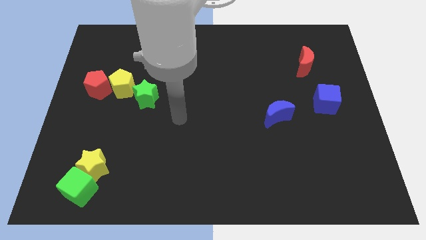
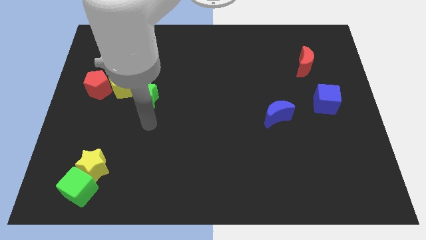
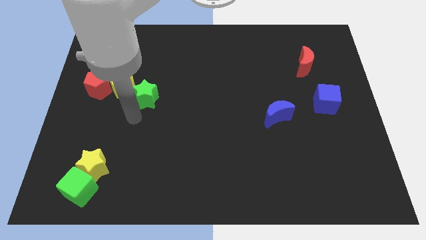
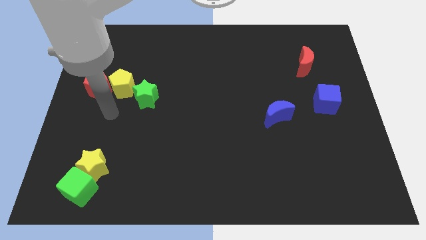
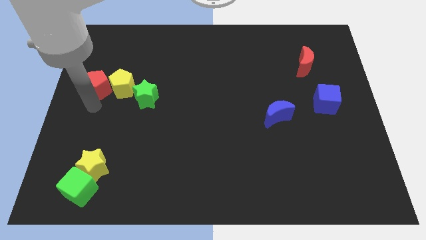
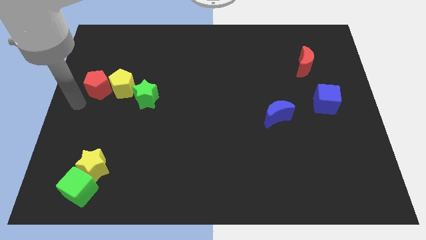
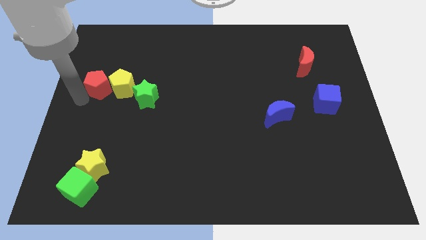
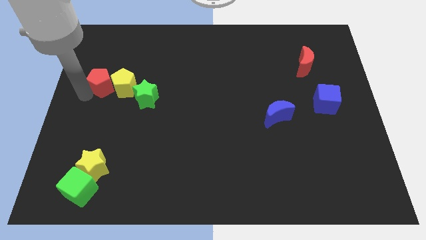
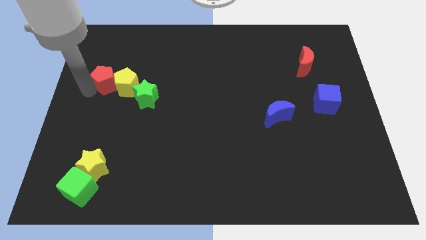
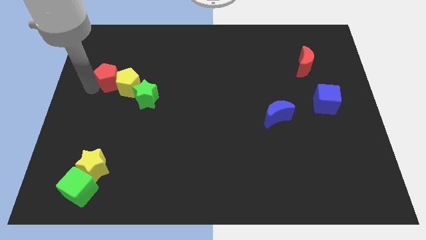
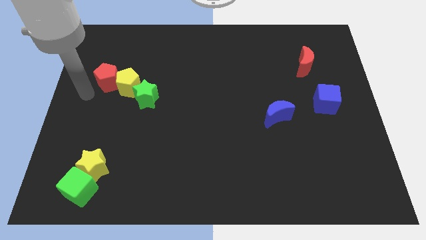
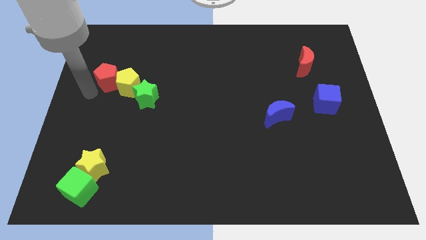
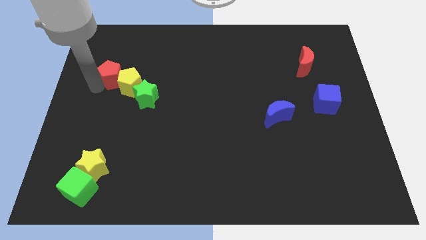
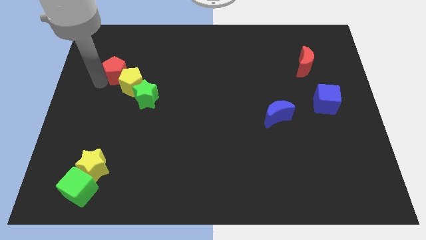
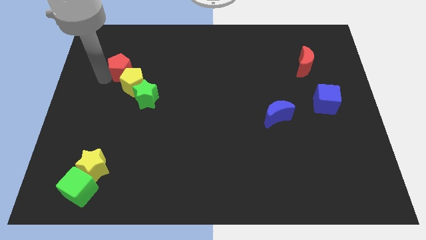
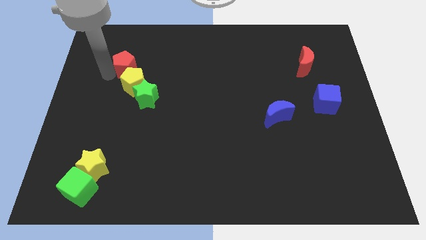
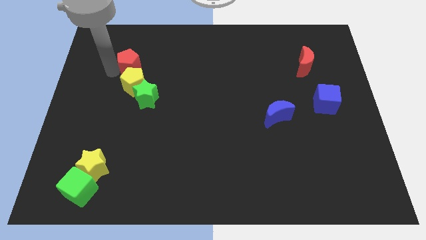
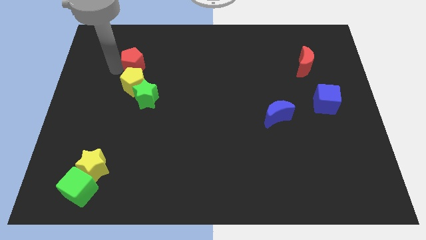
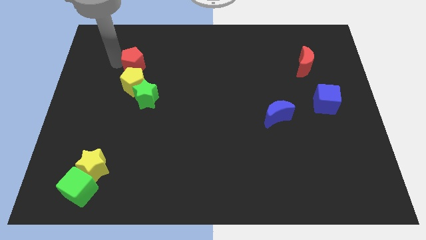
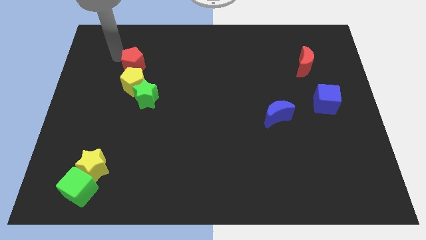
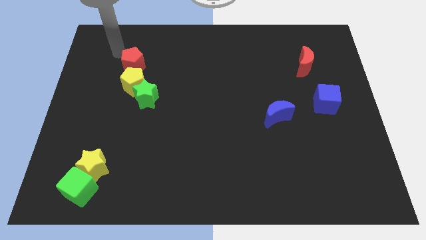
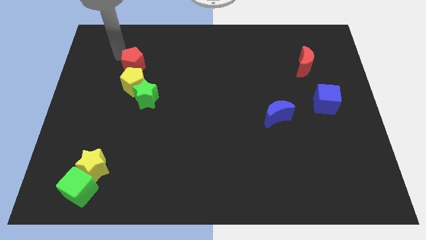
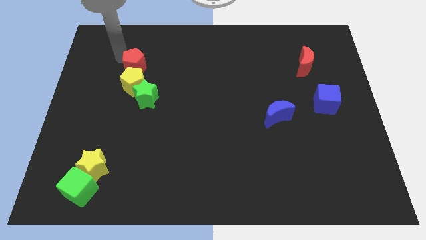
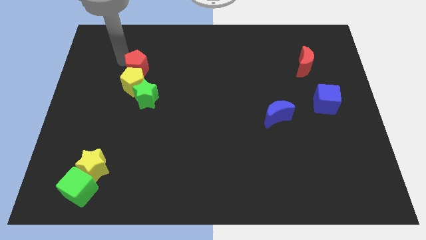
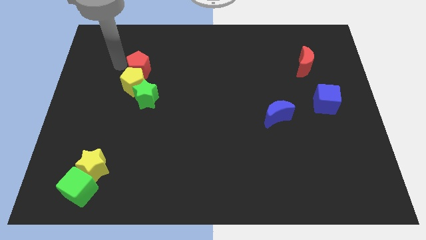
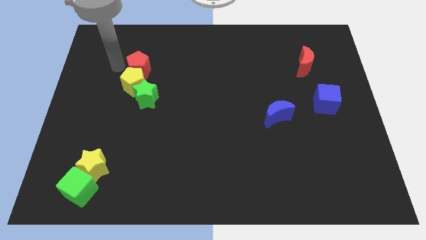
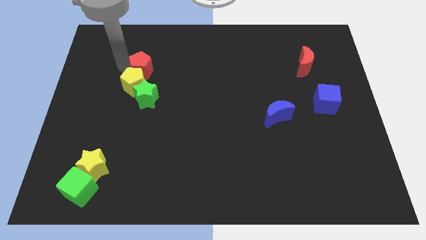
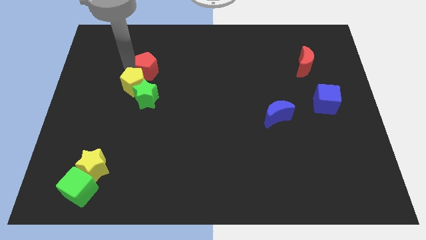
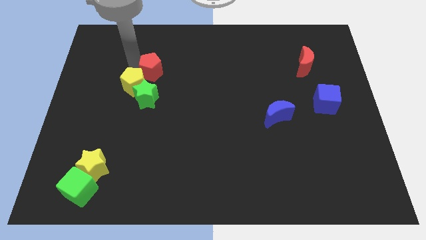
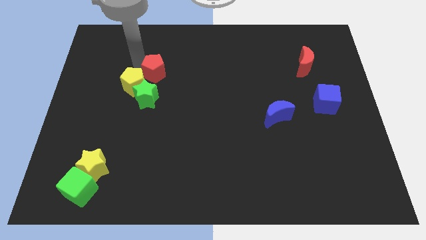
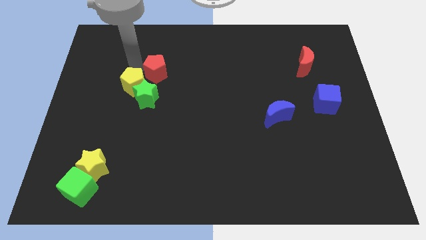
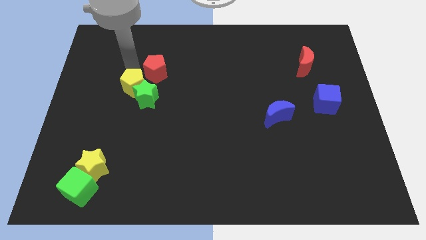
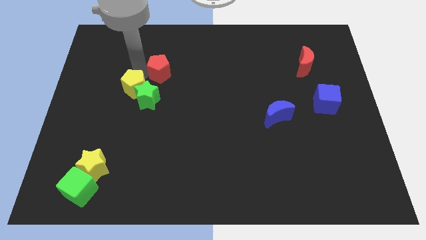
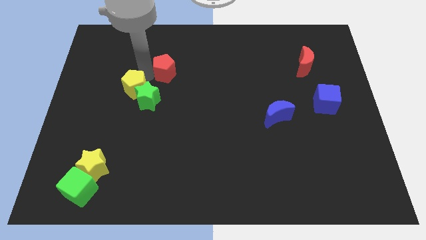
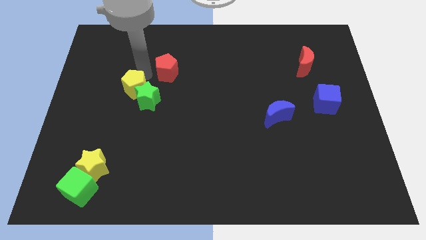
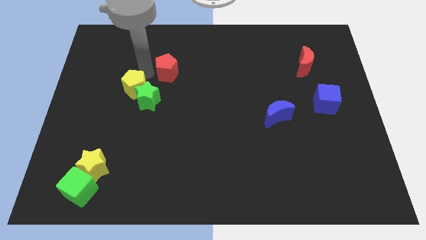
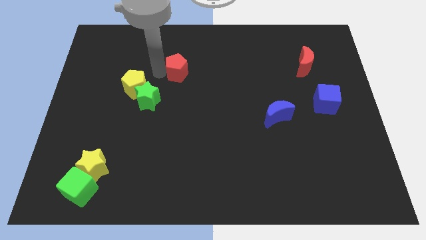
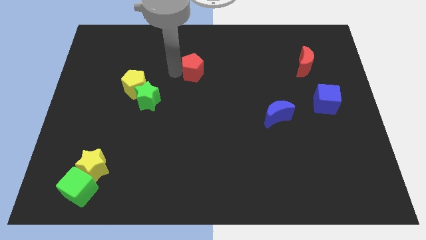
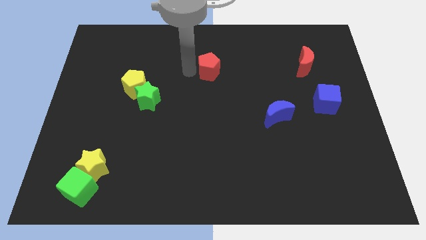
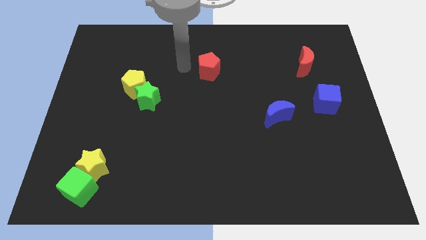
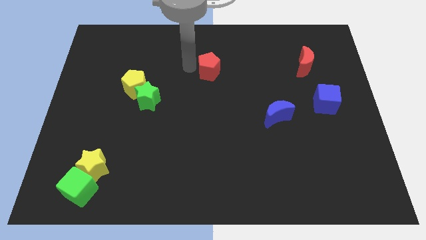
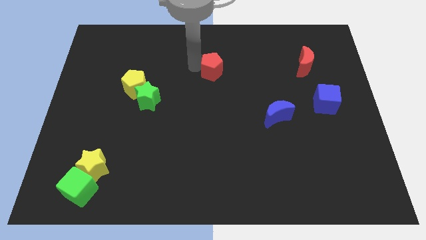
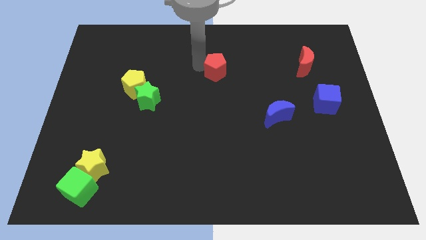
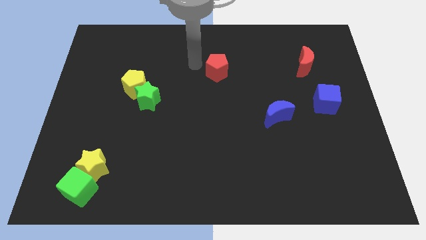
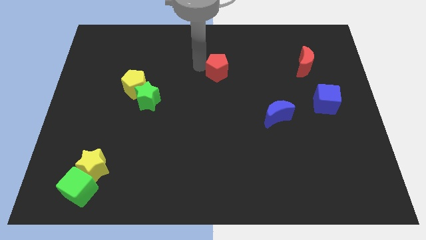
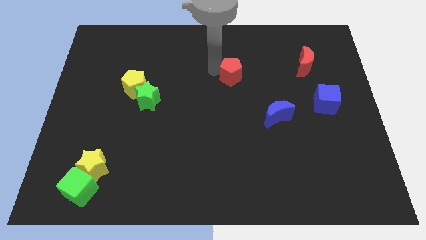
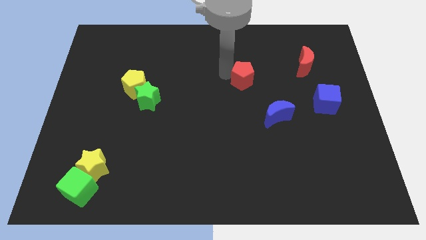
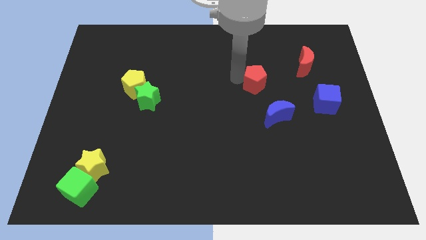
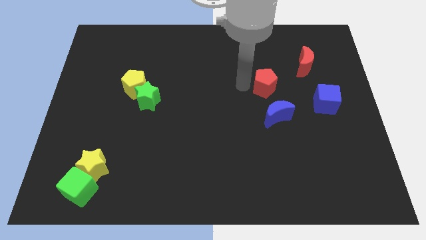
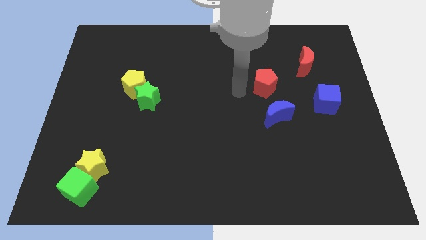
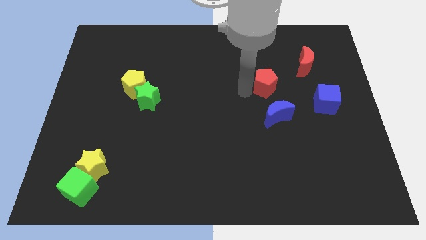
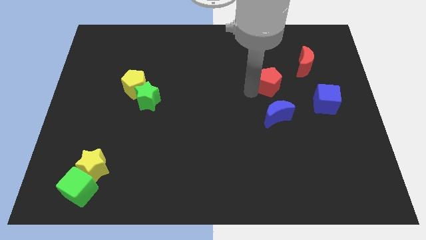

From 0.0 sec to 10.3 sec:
move the red pentagon to the bottom left of the red moon

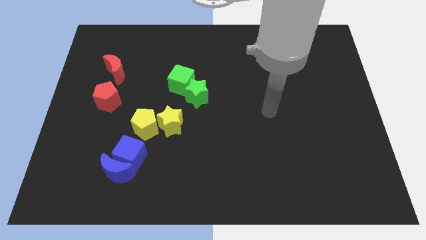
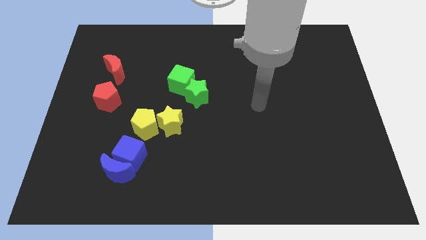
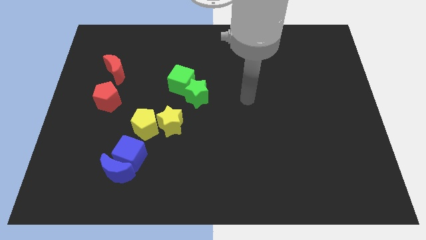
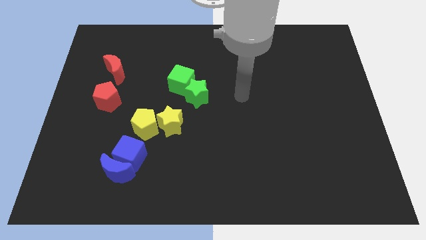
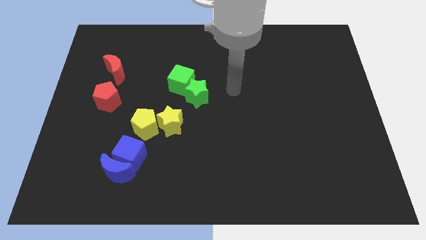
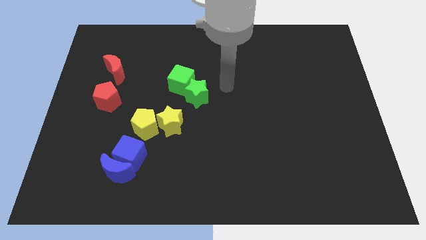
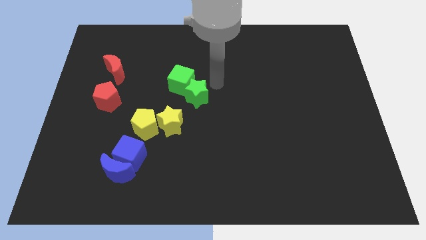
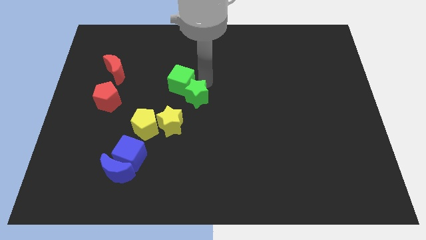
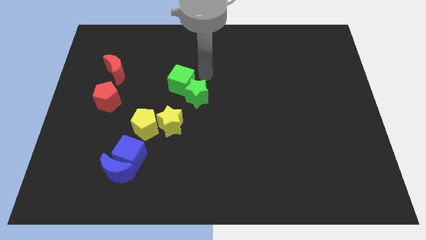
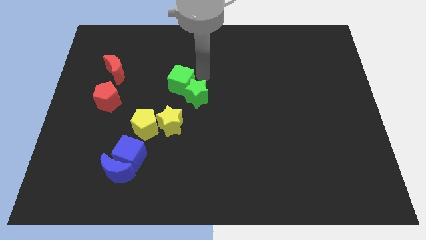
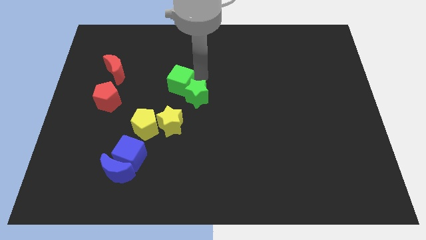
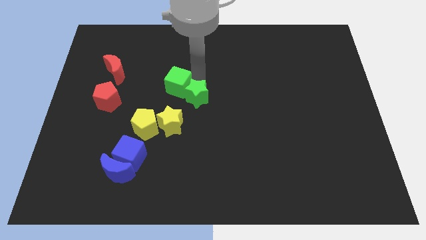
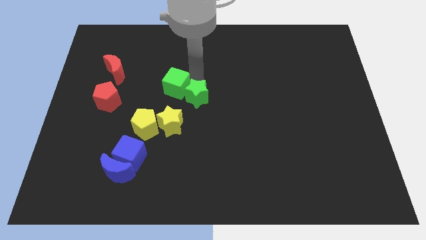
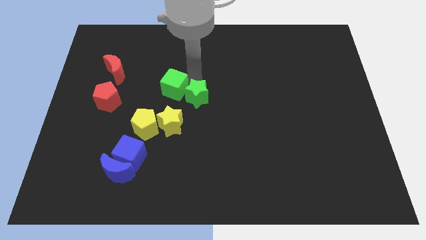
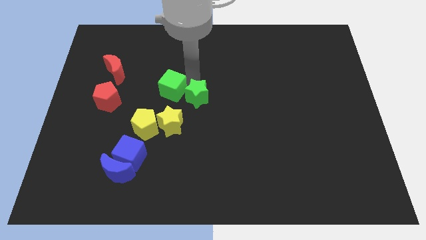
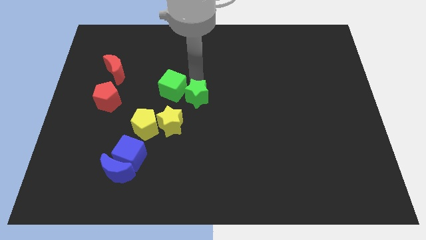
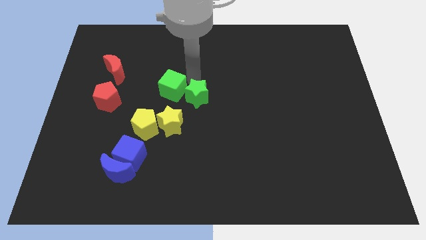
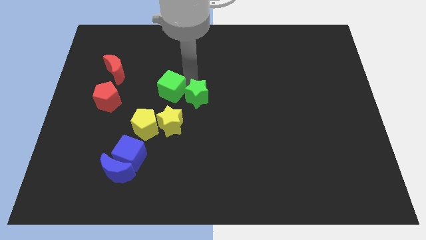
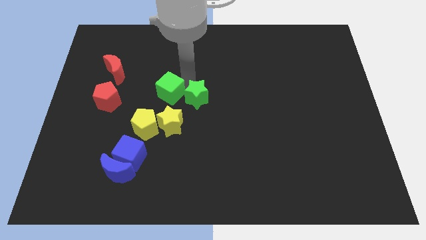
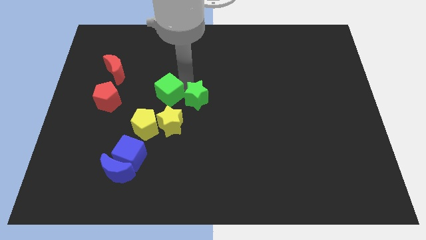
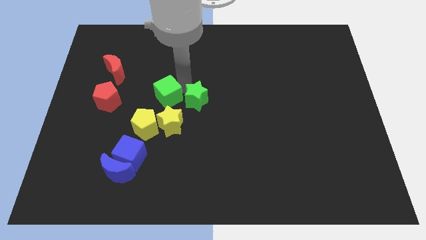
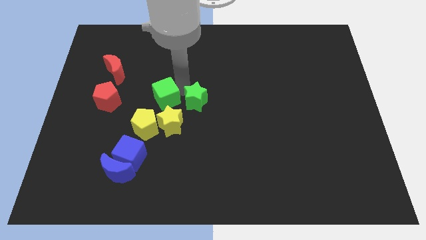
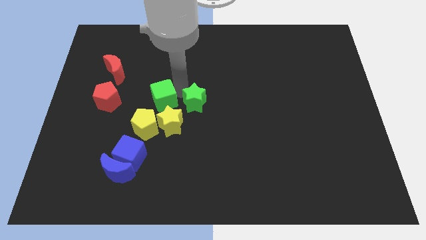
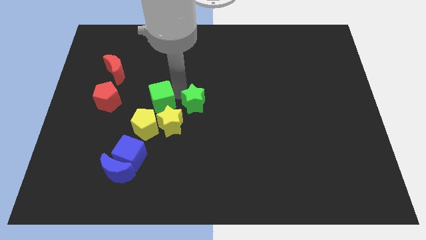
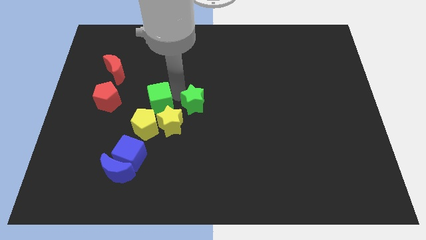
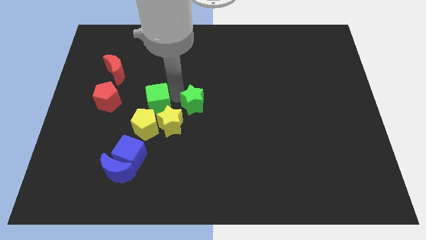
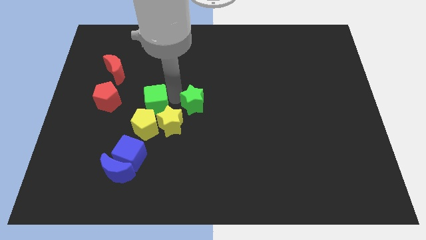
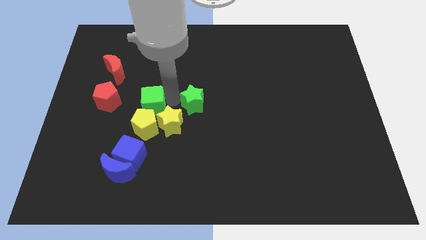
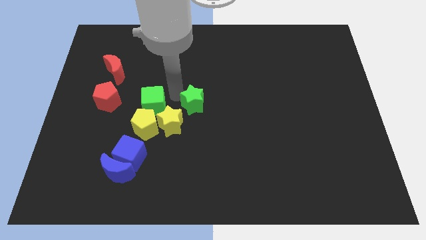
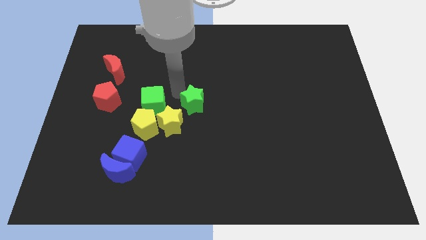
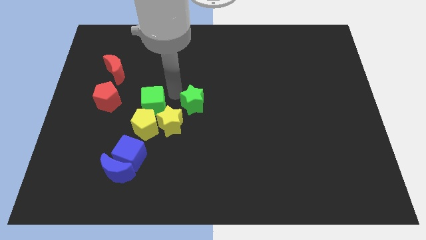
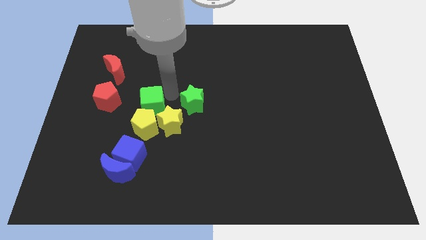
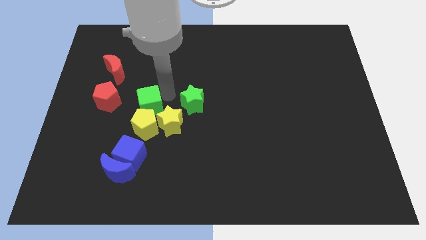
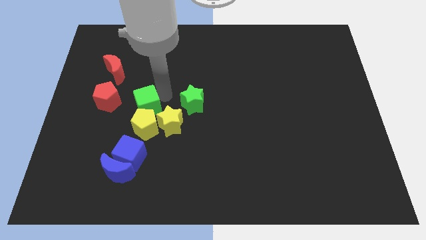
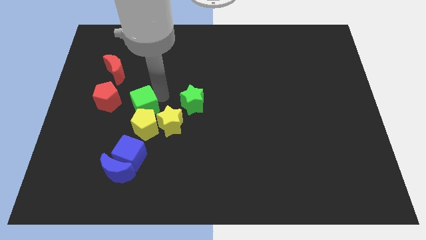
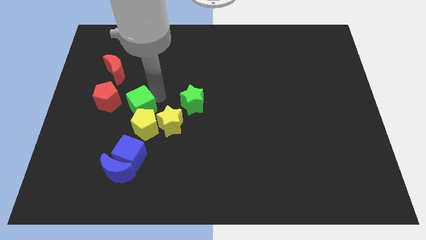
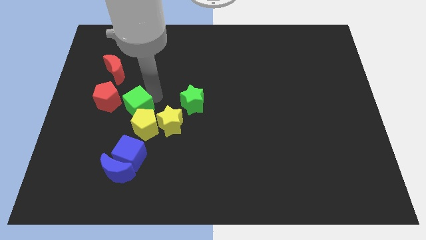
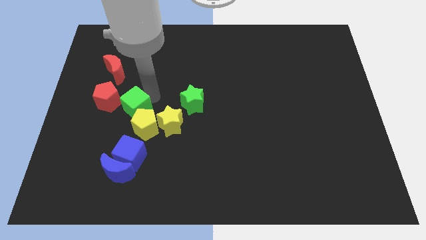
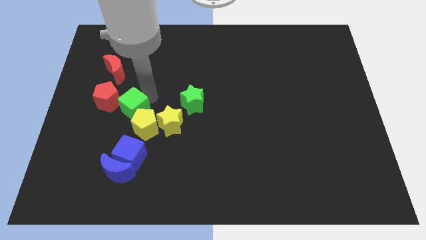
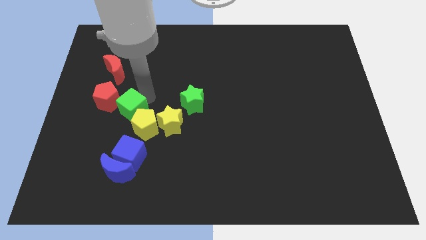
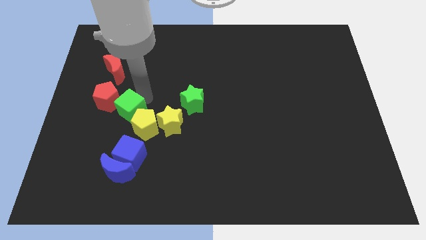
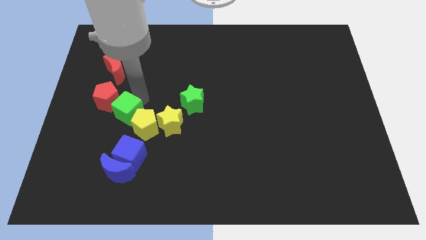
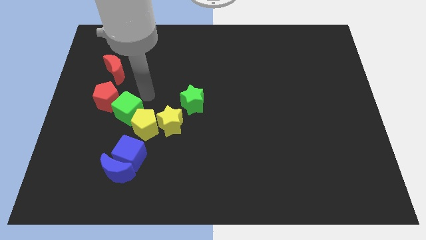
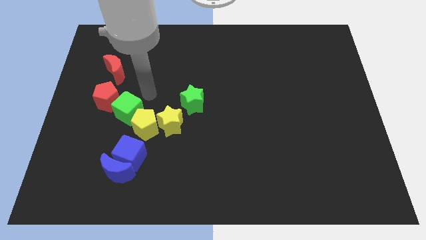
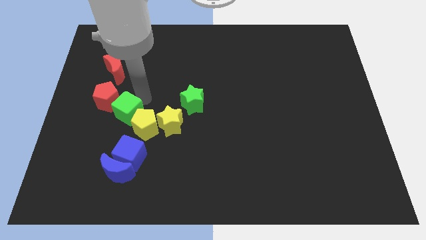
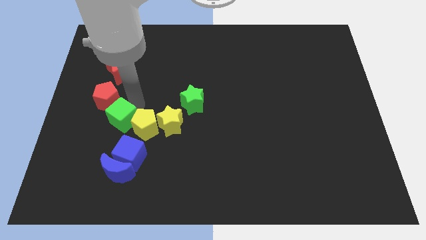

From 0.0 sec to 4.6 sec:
slide the green cube below the red pentagon
